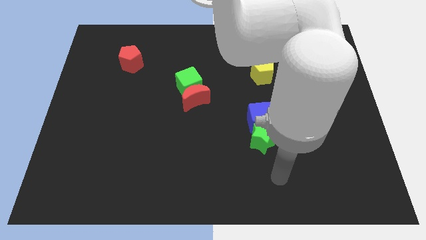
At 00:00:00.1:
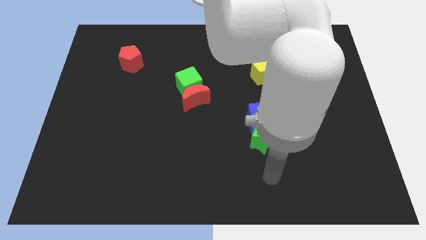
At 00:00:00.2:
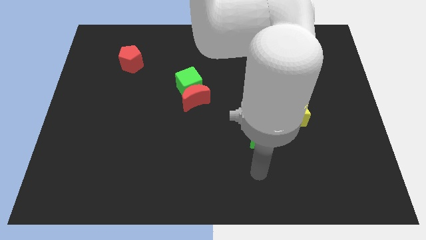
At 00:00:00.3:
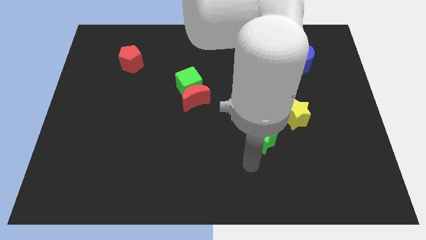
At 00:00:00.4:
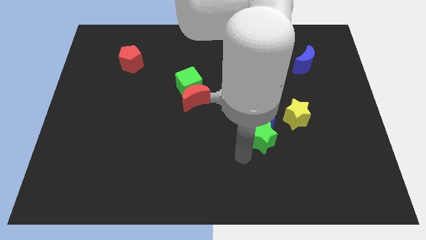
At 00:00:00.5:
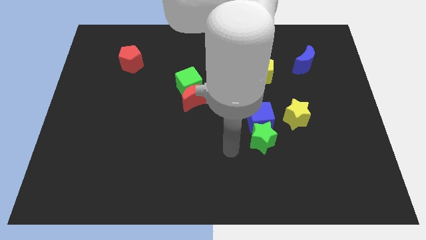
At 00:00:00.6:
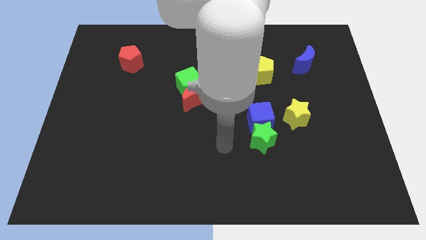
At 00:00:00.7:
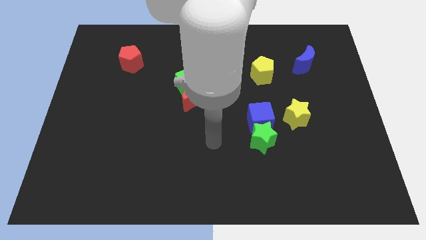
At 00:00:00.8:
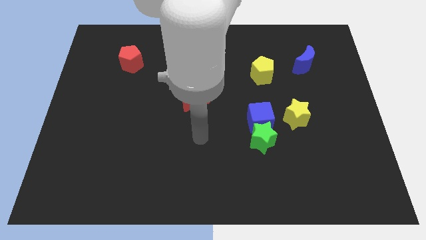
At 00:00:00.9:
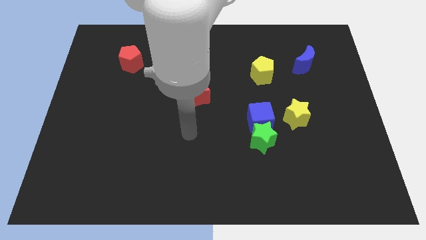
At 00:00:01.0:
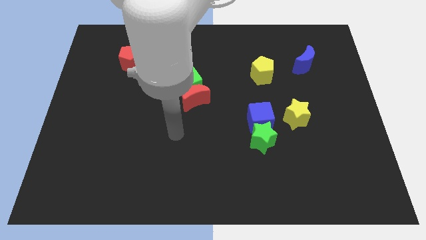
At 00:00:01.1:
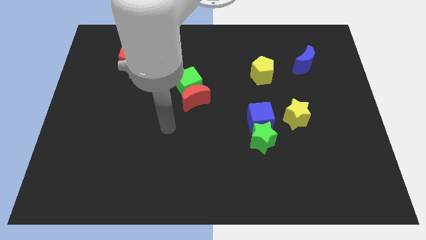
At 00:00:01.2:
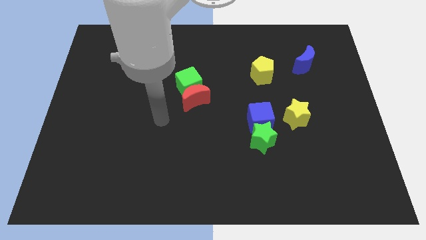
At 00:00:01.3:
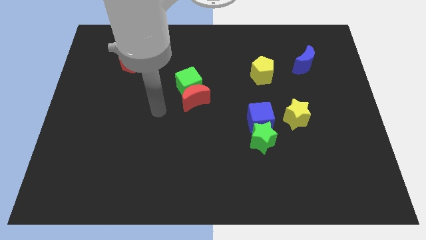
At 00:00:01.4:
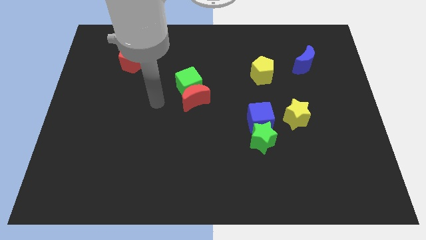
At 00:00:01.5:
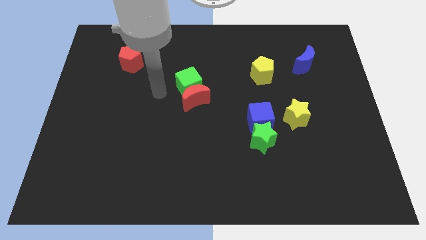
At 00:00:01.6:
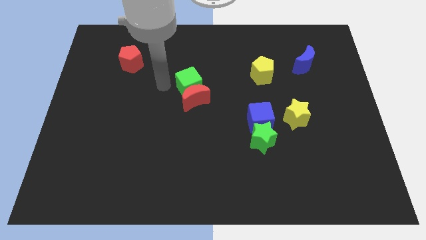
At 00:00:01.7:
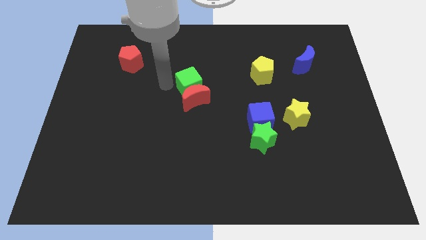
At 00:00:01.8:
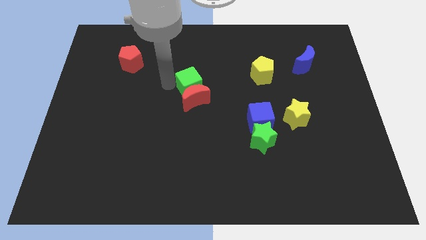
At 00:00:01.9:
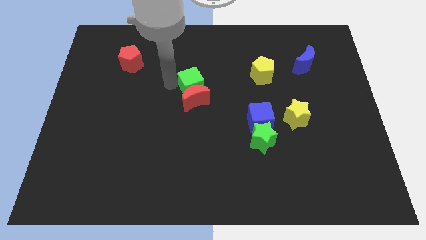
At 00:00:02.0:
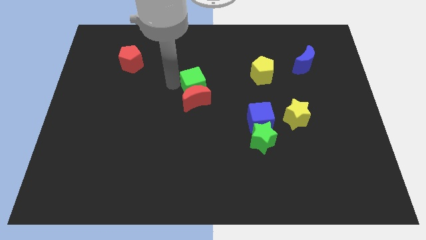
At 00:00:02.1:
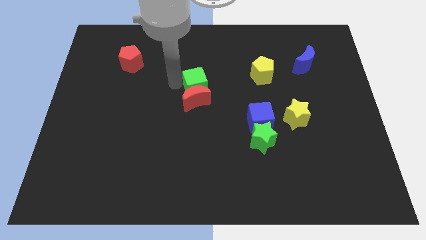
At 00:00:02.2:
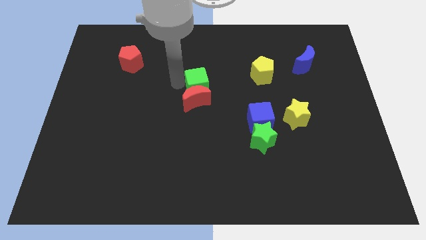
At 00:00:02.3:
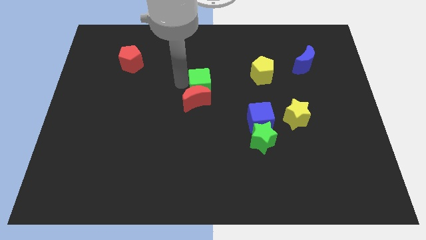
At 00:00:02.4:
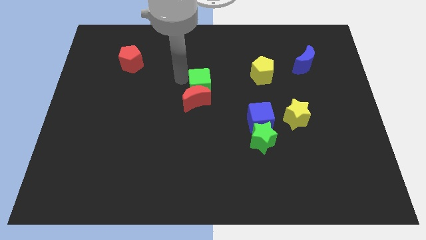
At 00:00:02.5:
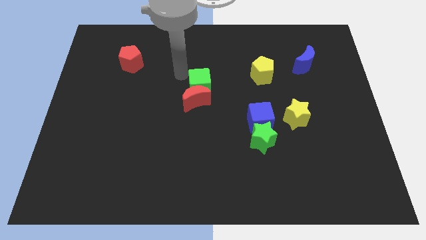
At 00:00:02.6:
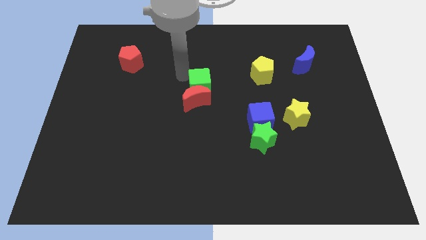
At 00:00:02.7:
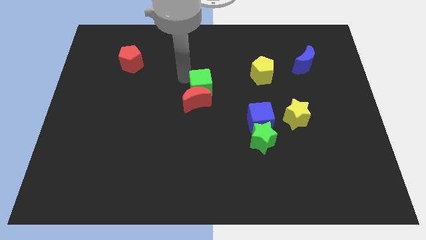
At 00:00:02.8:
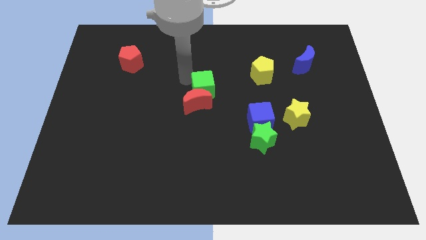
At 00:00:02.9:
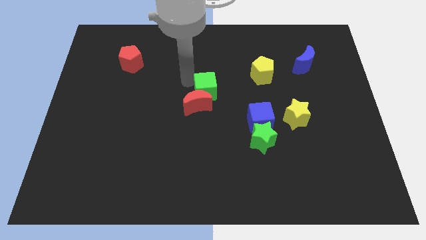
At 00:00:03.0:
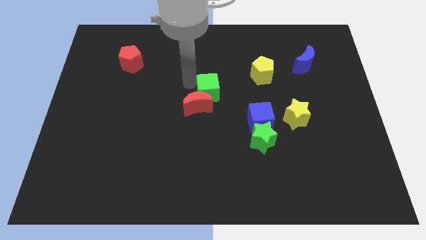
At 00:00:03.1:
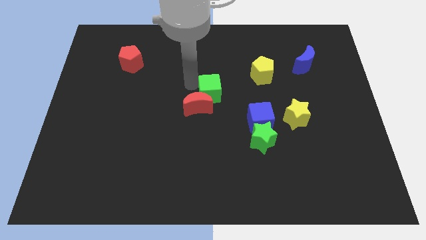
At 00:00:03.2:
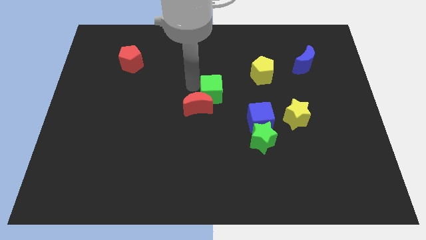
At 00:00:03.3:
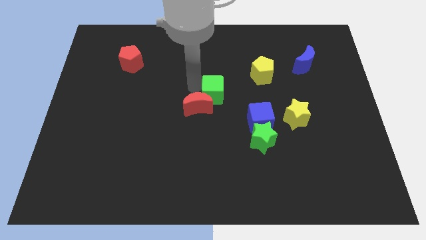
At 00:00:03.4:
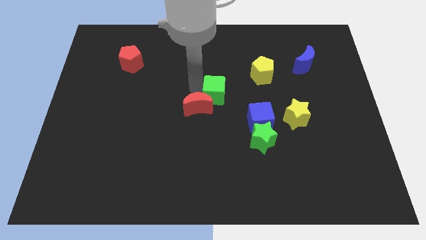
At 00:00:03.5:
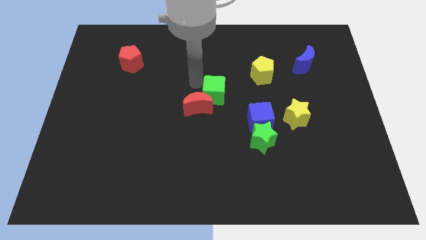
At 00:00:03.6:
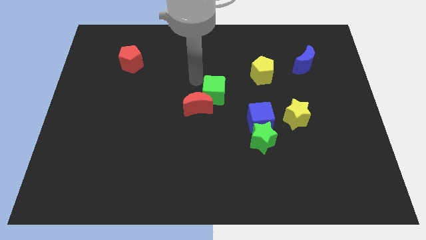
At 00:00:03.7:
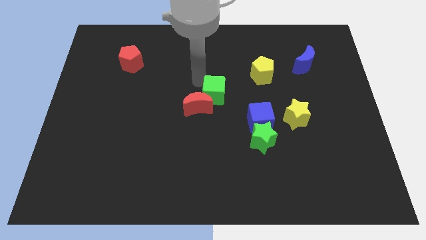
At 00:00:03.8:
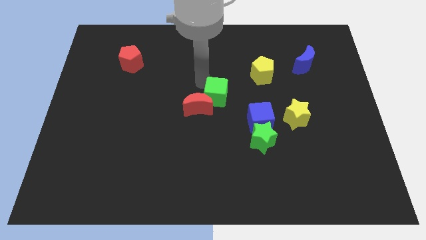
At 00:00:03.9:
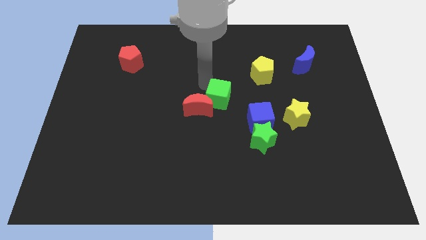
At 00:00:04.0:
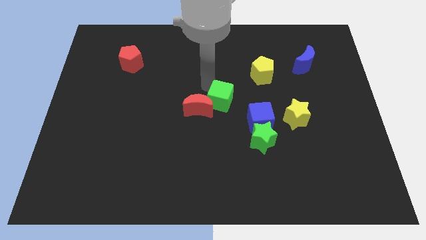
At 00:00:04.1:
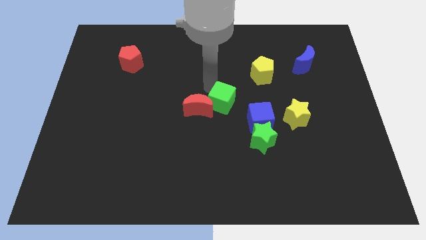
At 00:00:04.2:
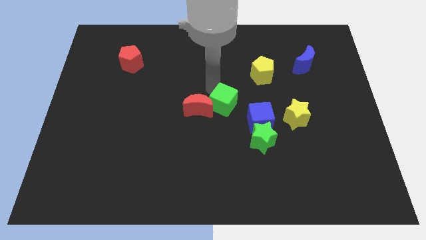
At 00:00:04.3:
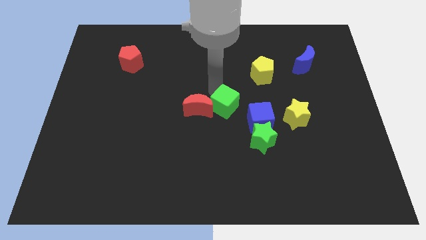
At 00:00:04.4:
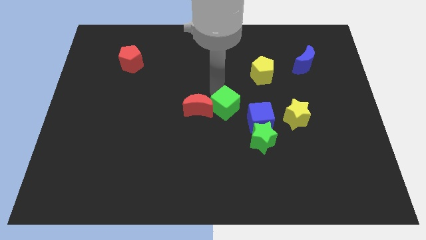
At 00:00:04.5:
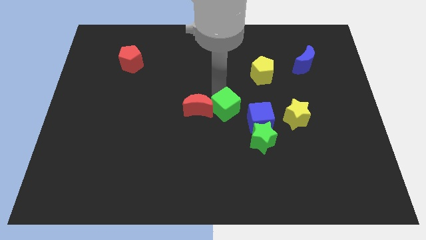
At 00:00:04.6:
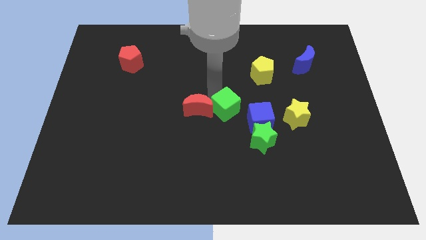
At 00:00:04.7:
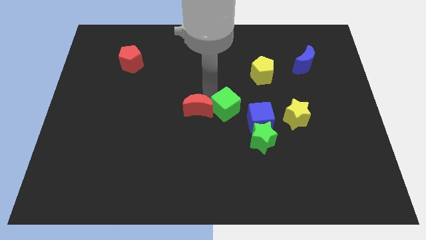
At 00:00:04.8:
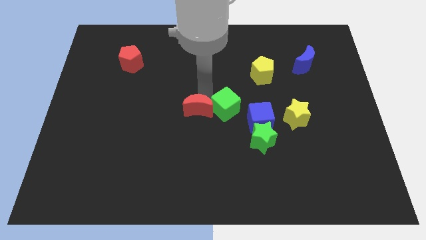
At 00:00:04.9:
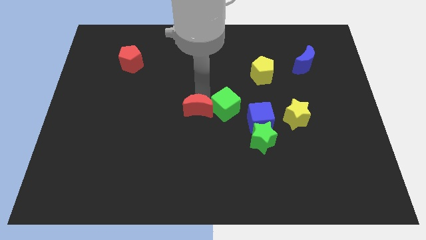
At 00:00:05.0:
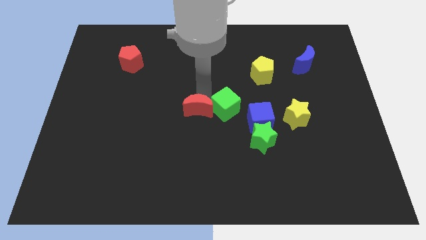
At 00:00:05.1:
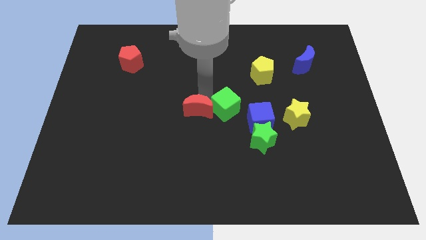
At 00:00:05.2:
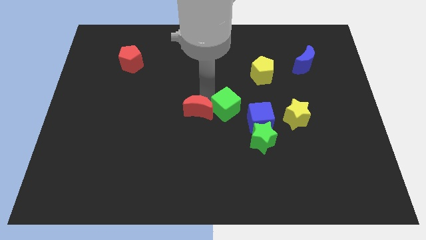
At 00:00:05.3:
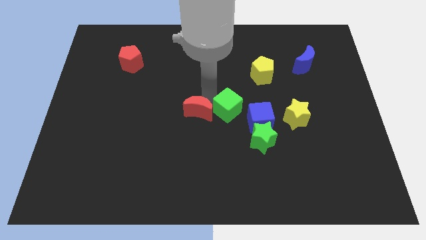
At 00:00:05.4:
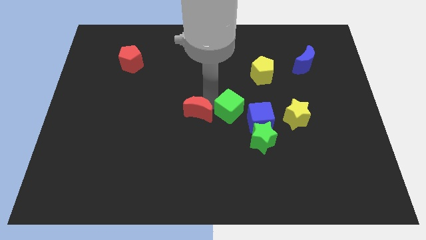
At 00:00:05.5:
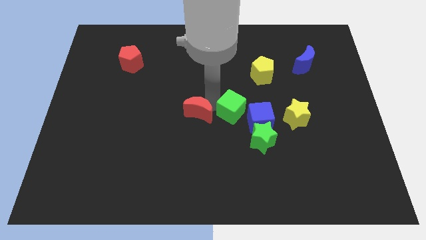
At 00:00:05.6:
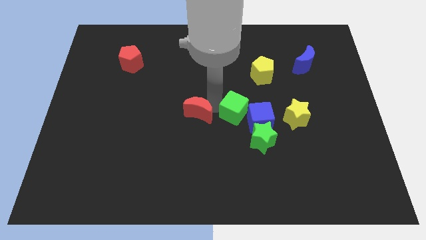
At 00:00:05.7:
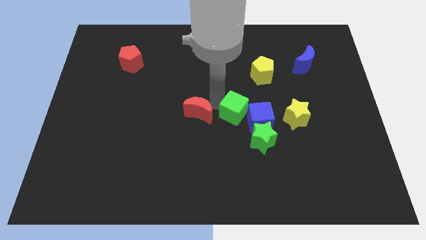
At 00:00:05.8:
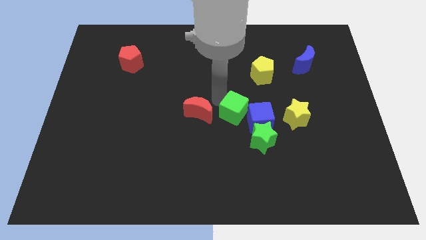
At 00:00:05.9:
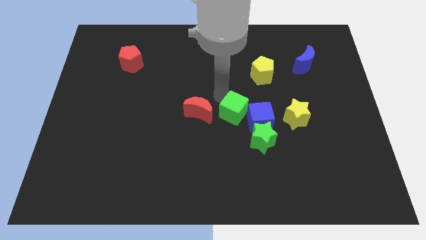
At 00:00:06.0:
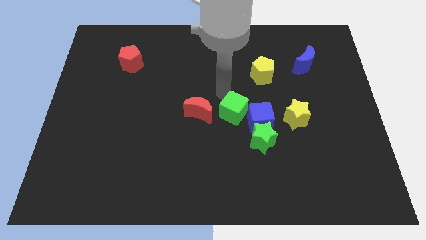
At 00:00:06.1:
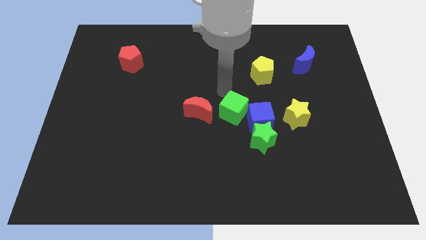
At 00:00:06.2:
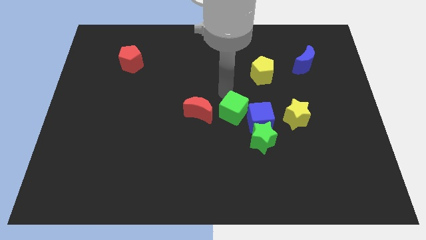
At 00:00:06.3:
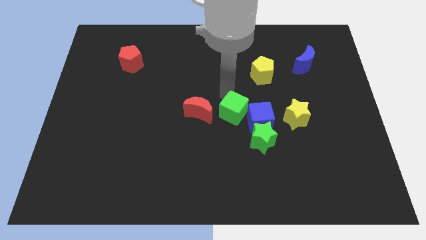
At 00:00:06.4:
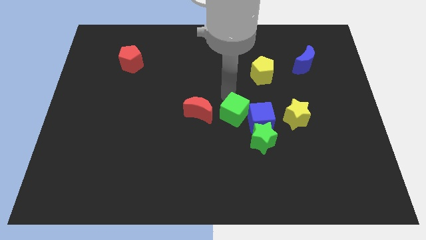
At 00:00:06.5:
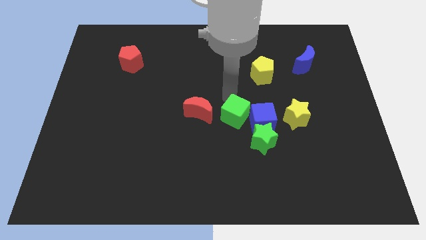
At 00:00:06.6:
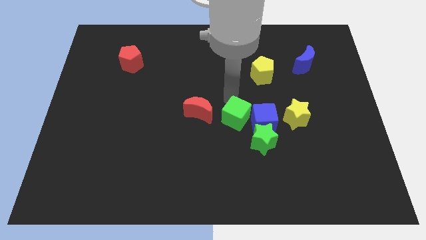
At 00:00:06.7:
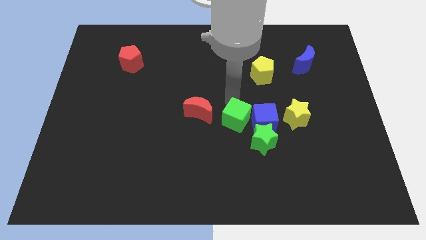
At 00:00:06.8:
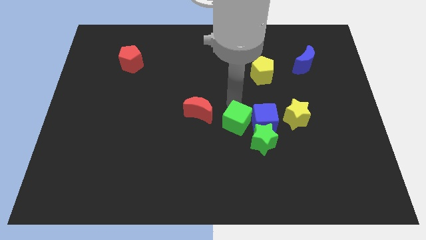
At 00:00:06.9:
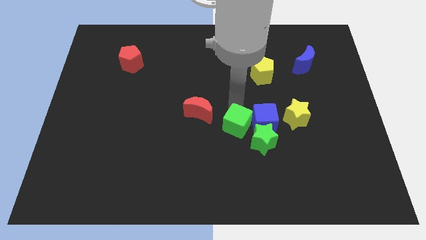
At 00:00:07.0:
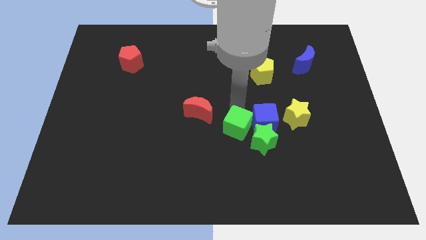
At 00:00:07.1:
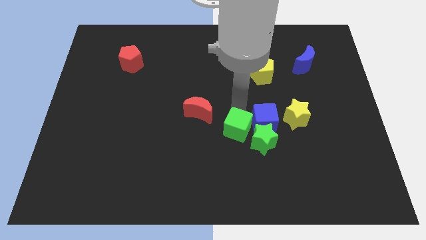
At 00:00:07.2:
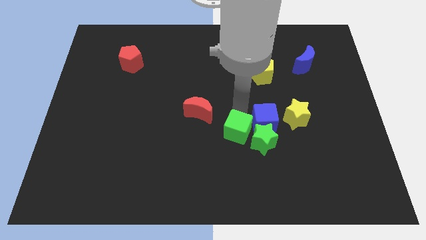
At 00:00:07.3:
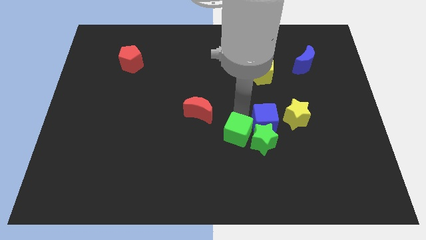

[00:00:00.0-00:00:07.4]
slide the green cube to the green star

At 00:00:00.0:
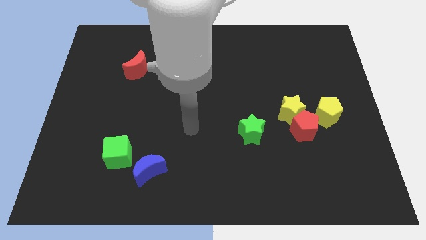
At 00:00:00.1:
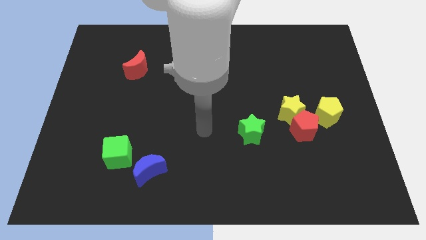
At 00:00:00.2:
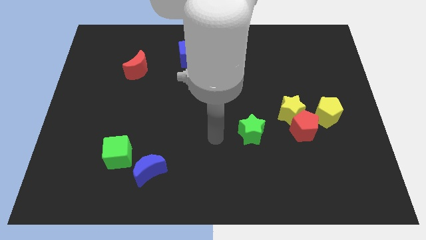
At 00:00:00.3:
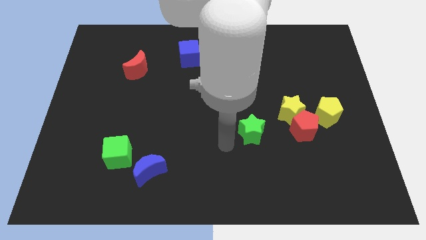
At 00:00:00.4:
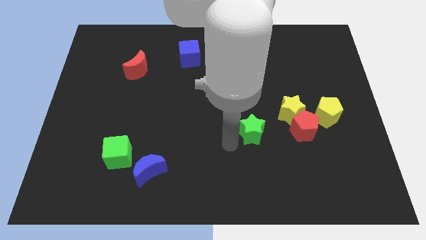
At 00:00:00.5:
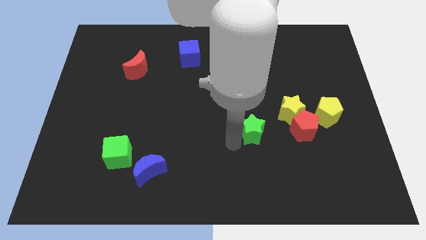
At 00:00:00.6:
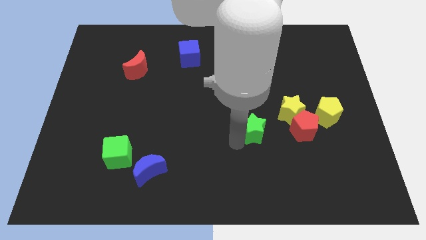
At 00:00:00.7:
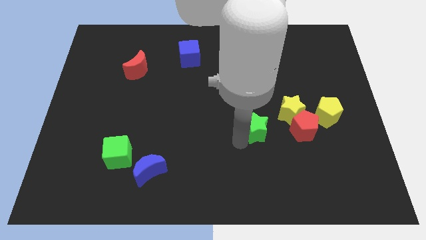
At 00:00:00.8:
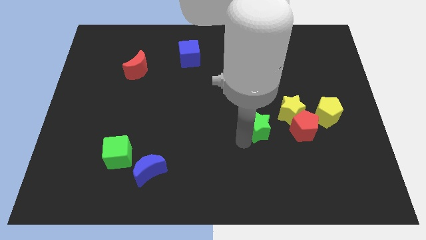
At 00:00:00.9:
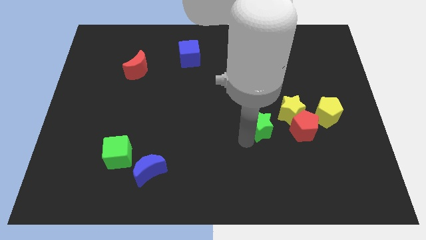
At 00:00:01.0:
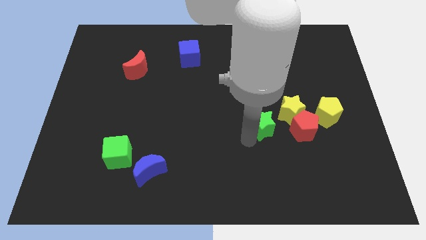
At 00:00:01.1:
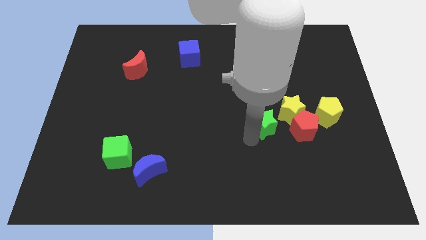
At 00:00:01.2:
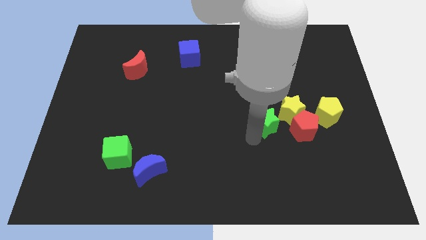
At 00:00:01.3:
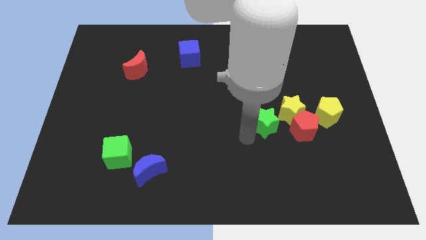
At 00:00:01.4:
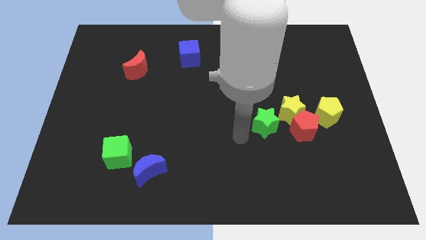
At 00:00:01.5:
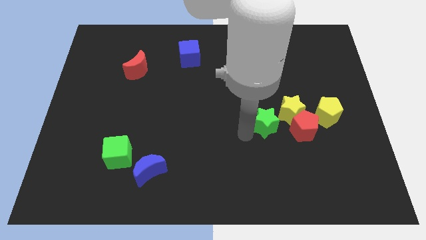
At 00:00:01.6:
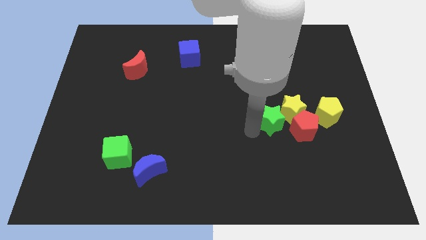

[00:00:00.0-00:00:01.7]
put the green star close to the yellow star
